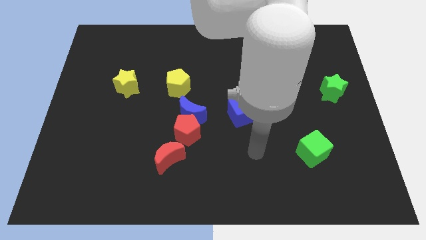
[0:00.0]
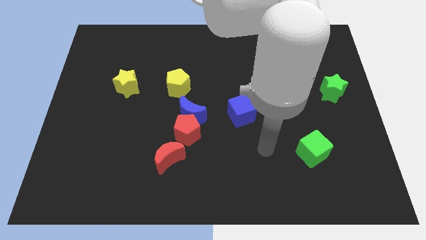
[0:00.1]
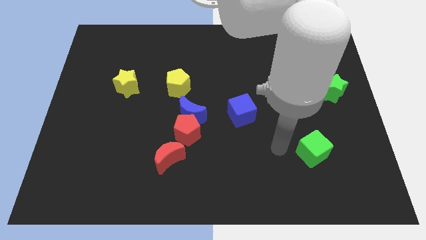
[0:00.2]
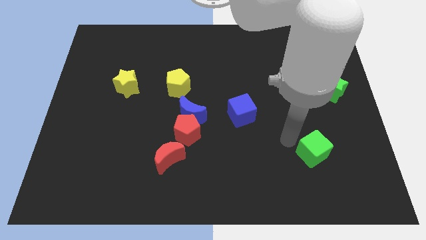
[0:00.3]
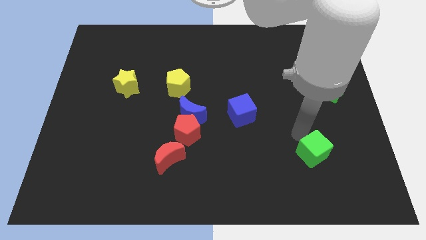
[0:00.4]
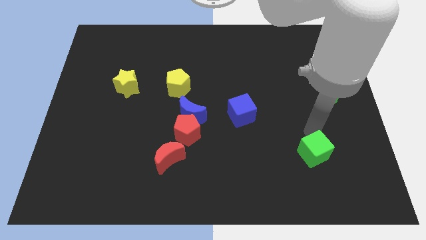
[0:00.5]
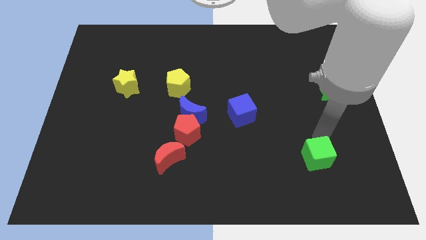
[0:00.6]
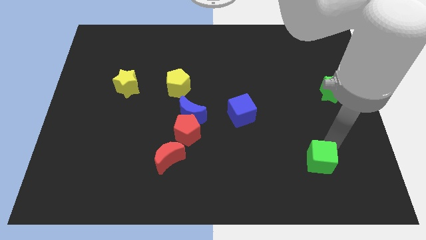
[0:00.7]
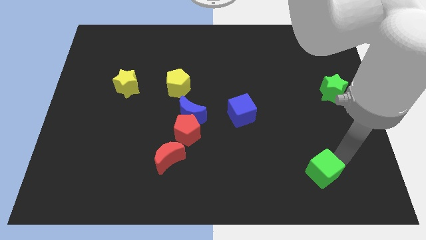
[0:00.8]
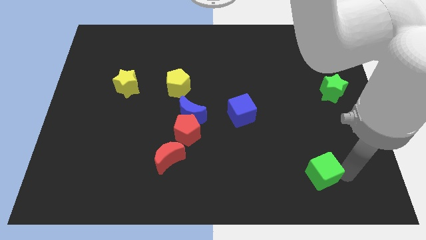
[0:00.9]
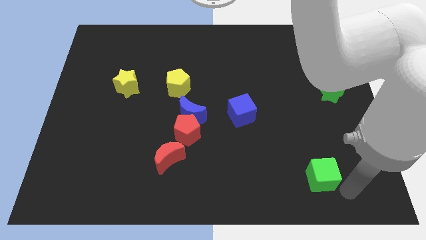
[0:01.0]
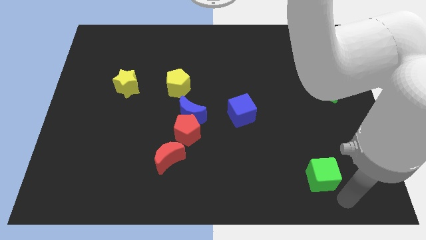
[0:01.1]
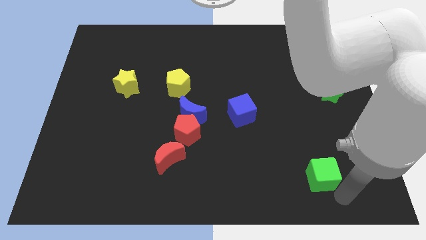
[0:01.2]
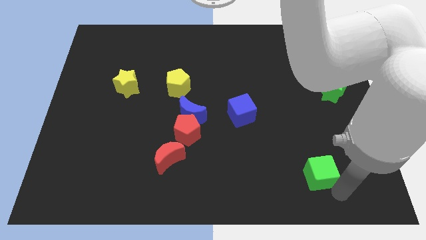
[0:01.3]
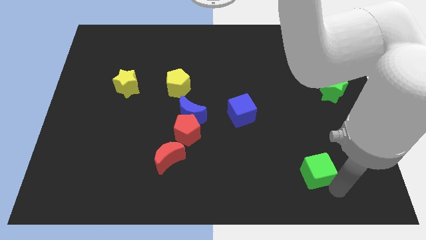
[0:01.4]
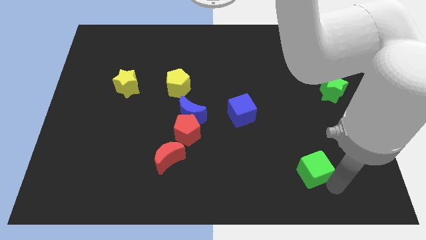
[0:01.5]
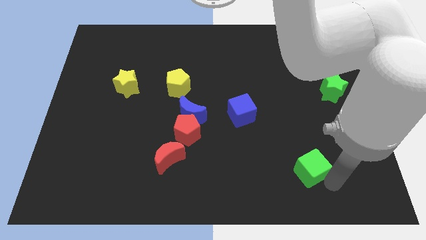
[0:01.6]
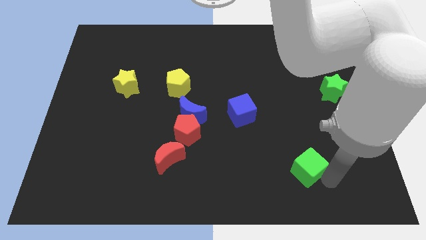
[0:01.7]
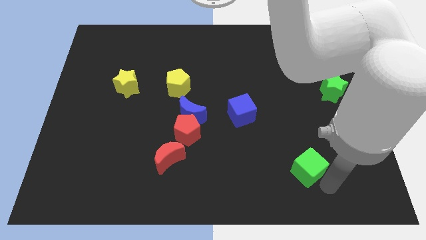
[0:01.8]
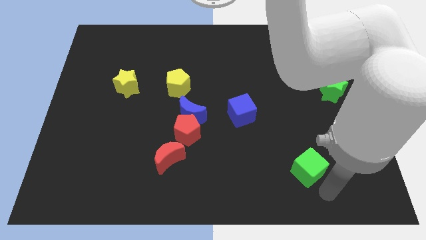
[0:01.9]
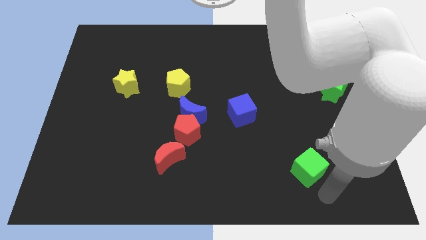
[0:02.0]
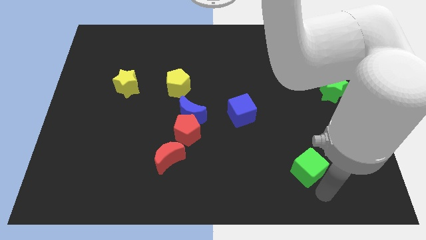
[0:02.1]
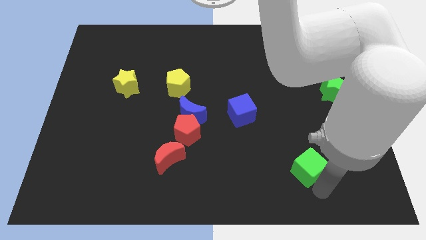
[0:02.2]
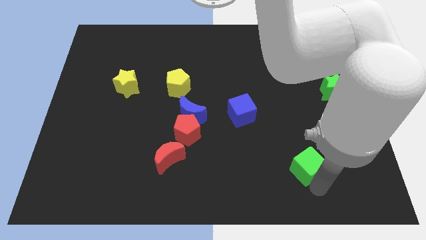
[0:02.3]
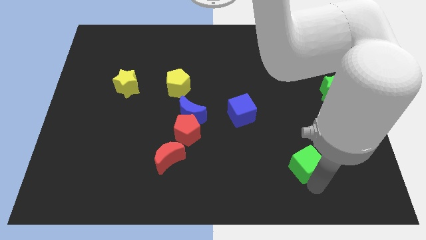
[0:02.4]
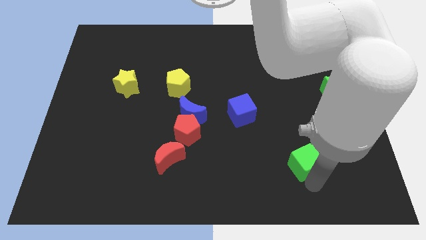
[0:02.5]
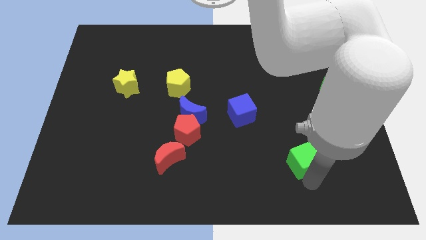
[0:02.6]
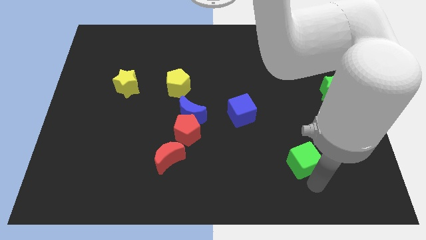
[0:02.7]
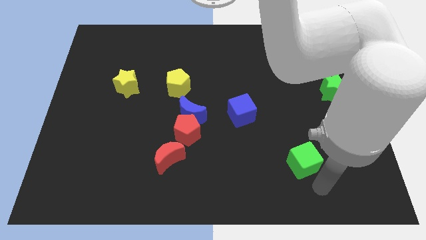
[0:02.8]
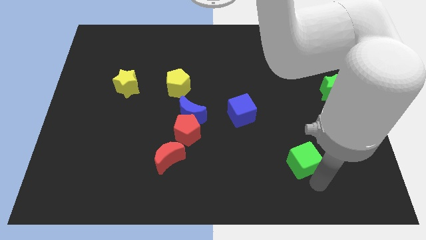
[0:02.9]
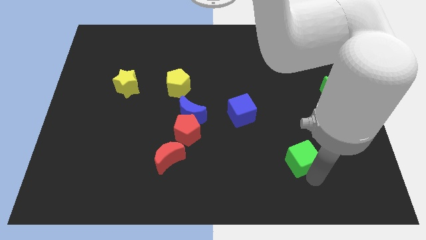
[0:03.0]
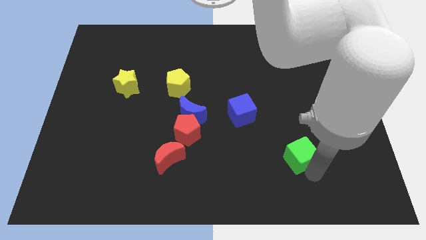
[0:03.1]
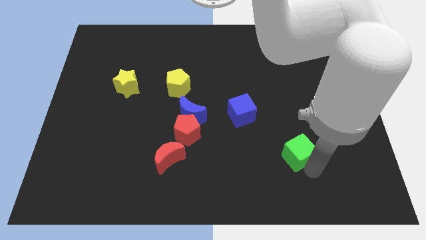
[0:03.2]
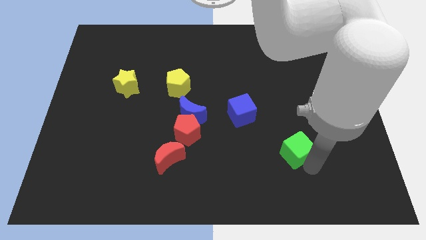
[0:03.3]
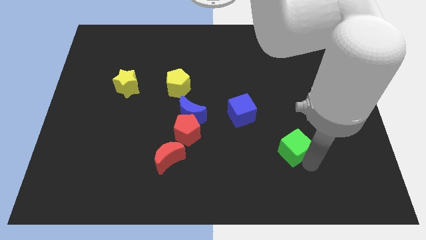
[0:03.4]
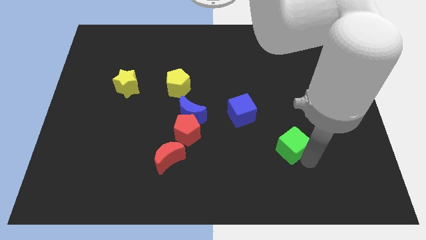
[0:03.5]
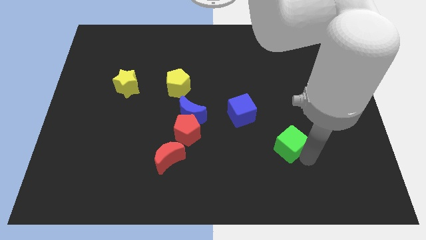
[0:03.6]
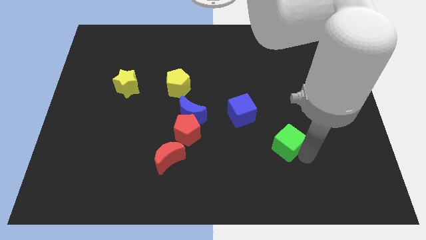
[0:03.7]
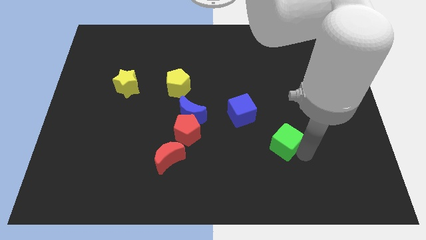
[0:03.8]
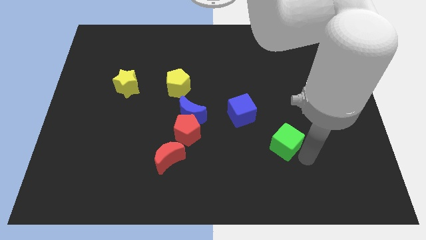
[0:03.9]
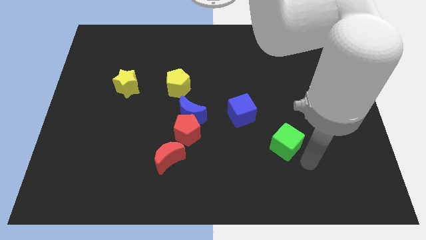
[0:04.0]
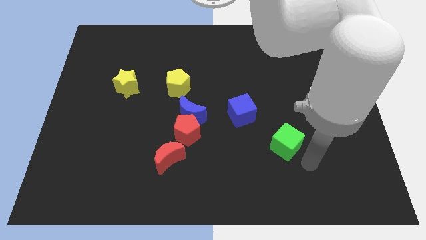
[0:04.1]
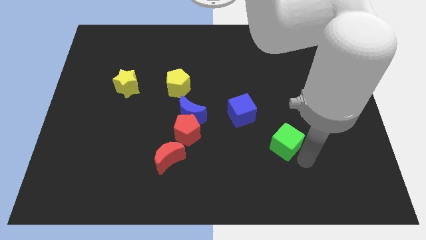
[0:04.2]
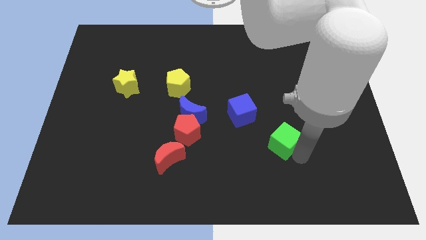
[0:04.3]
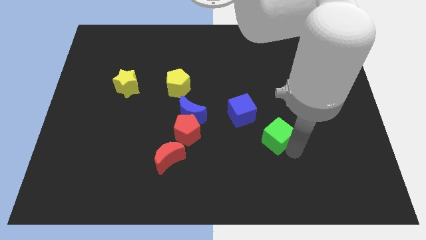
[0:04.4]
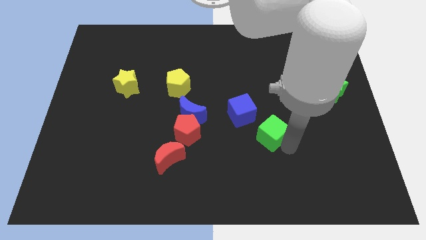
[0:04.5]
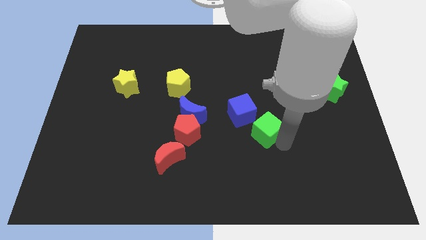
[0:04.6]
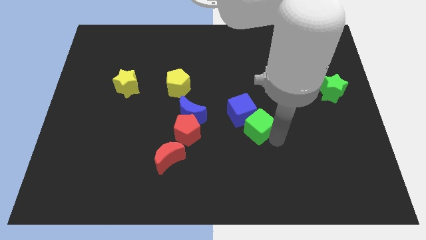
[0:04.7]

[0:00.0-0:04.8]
push the green cube next to the blue cube

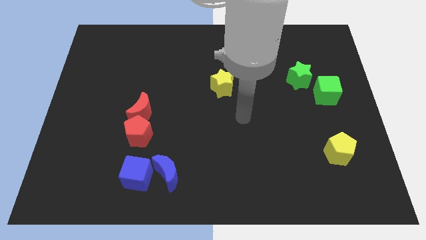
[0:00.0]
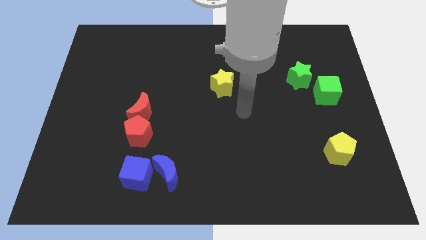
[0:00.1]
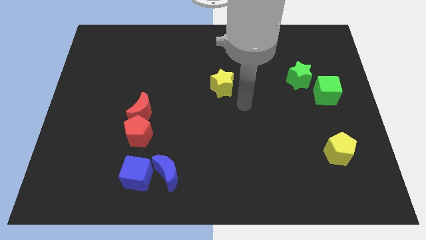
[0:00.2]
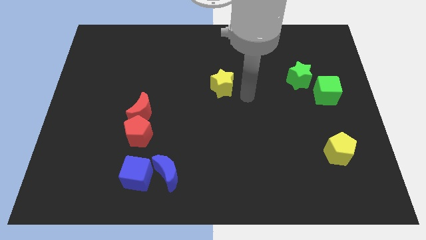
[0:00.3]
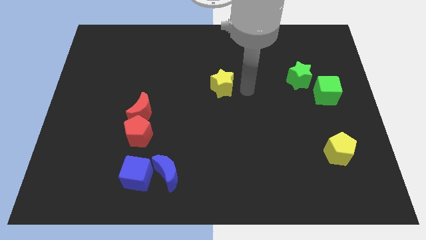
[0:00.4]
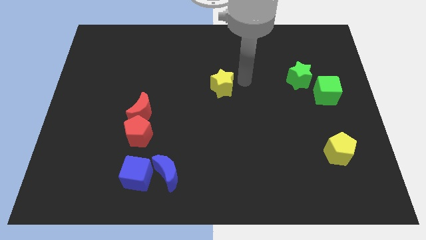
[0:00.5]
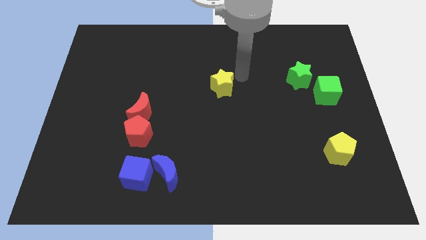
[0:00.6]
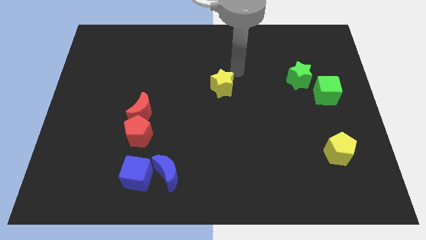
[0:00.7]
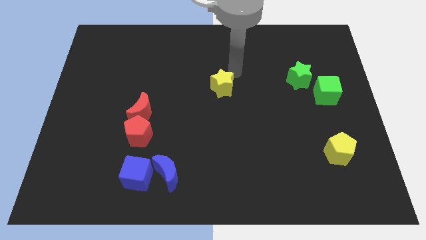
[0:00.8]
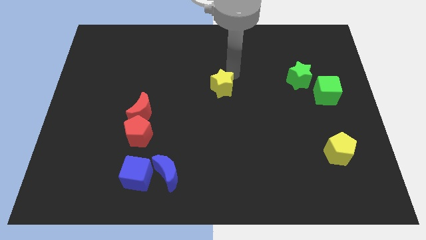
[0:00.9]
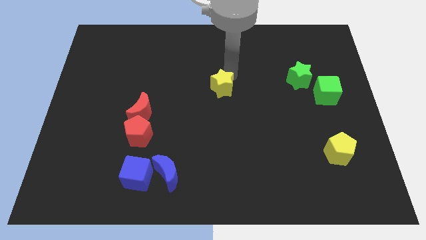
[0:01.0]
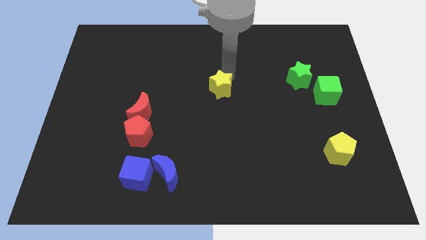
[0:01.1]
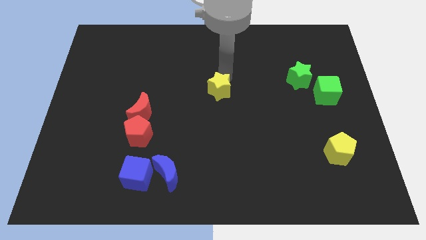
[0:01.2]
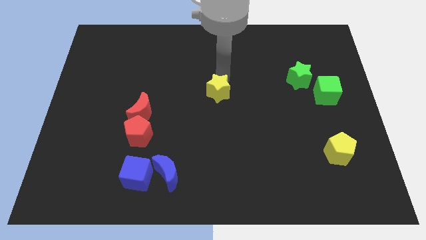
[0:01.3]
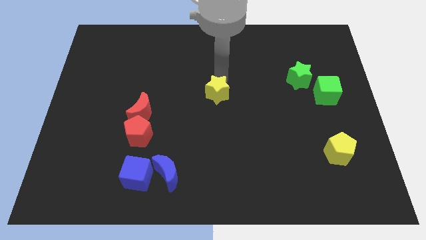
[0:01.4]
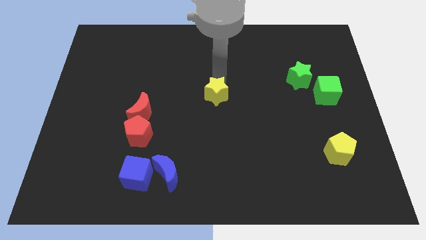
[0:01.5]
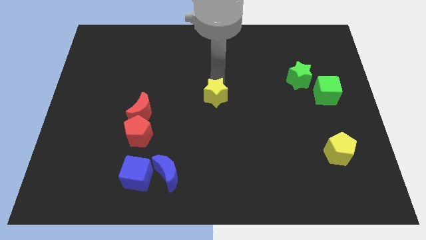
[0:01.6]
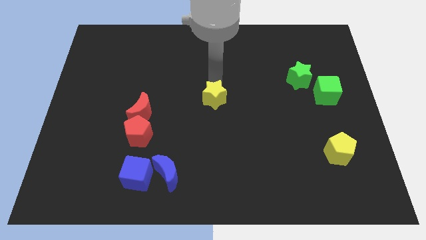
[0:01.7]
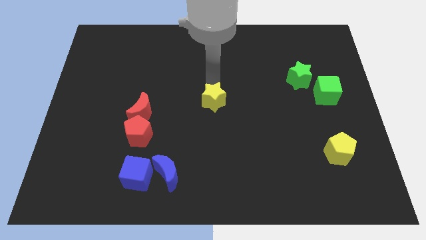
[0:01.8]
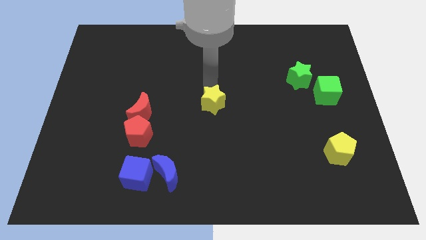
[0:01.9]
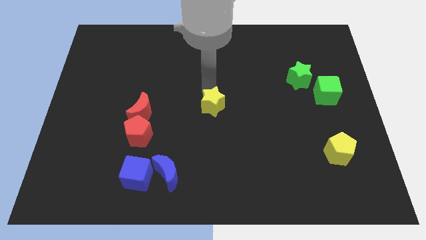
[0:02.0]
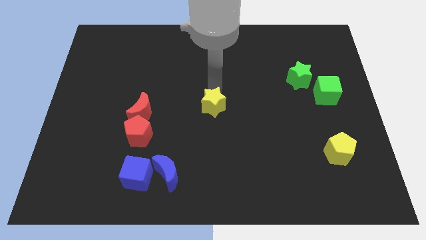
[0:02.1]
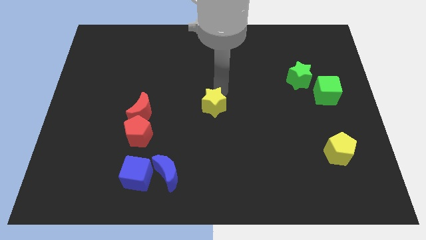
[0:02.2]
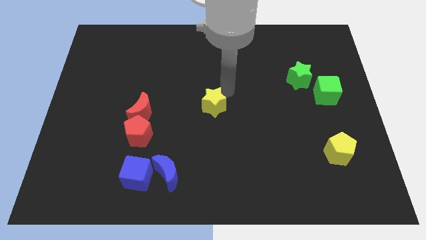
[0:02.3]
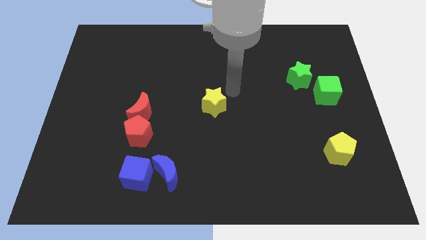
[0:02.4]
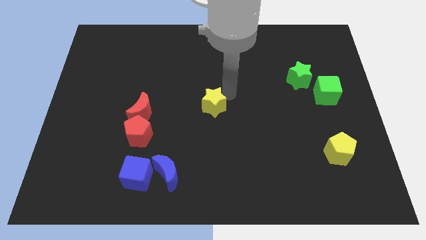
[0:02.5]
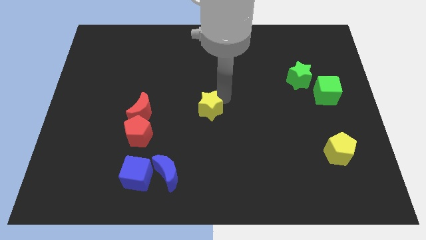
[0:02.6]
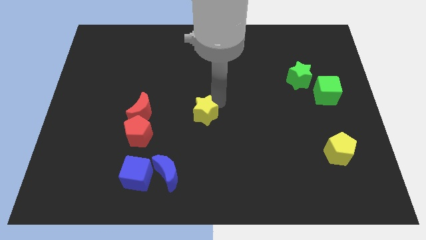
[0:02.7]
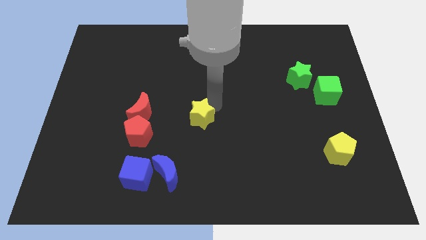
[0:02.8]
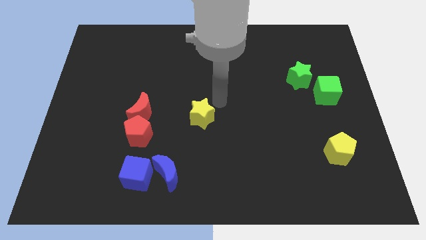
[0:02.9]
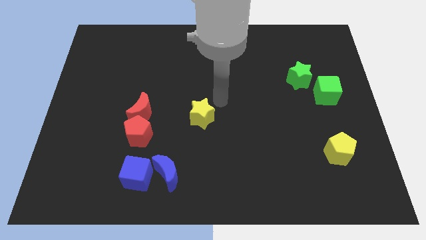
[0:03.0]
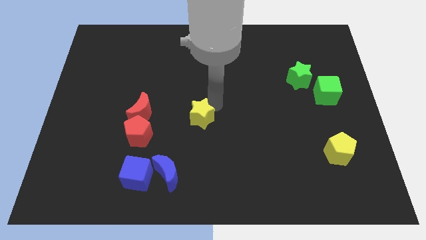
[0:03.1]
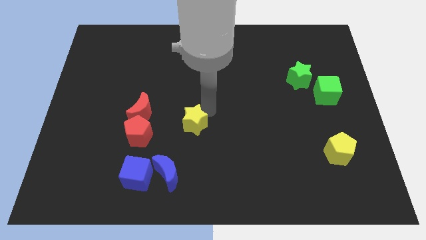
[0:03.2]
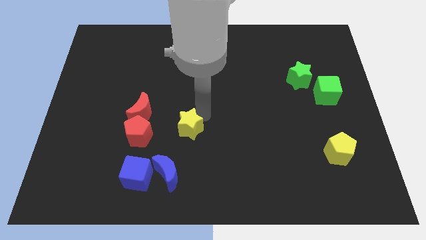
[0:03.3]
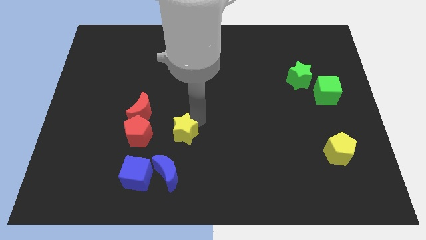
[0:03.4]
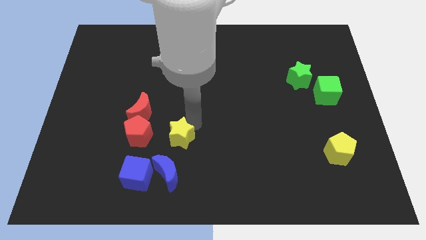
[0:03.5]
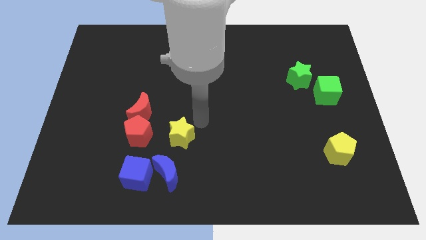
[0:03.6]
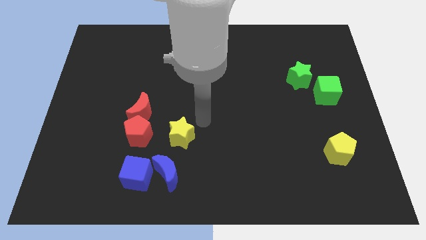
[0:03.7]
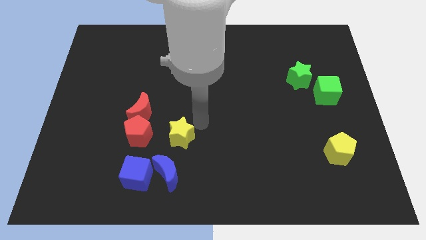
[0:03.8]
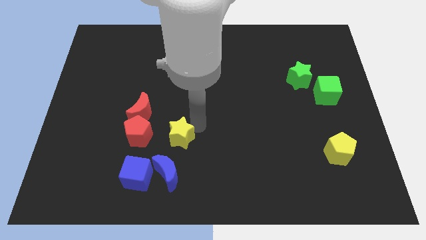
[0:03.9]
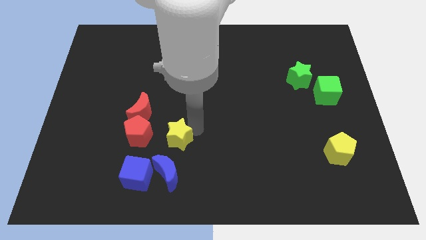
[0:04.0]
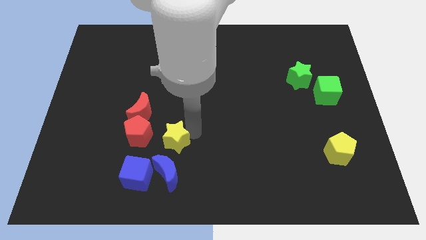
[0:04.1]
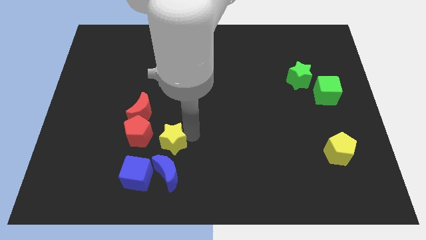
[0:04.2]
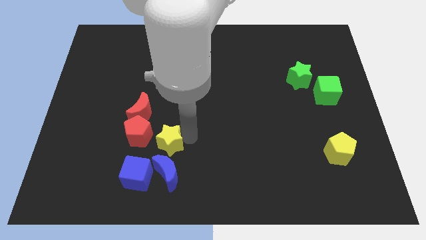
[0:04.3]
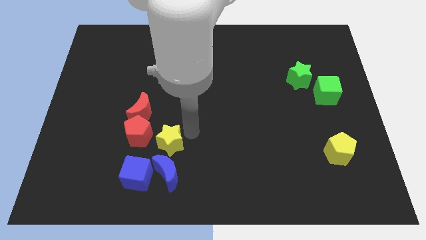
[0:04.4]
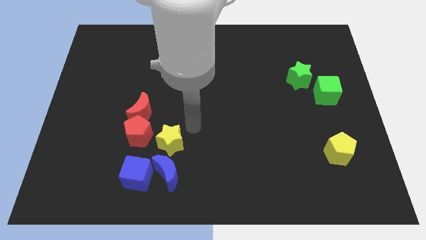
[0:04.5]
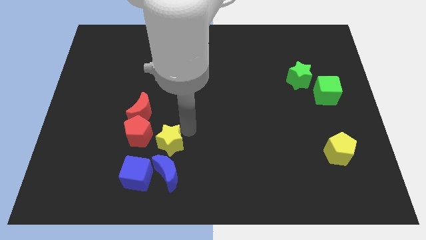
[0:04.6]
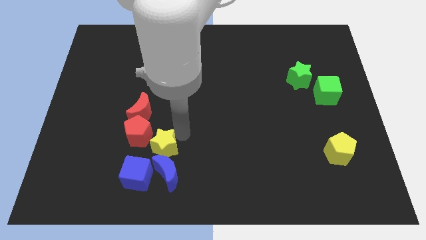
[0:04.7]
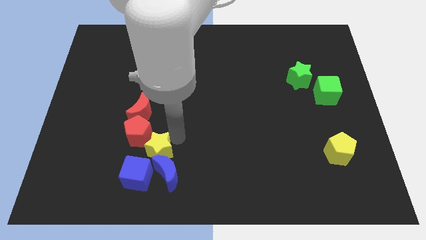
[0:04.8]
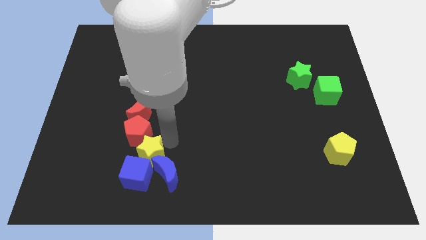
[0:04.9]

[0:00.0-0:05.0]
slide the yellow star to the blue cube
